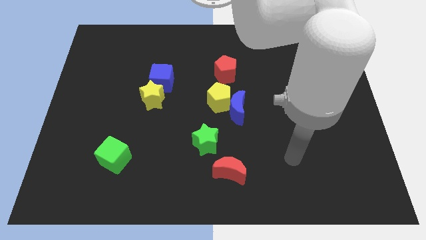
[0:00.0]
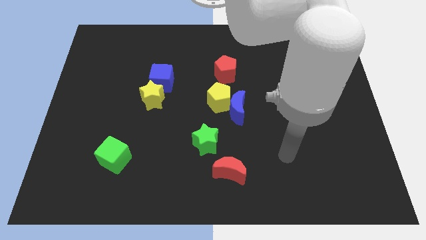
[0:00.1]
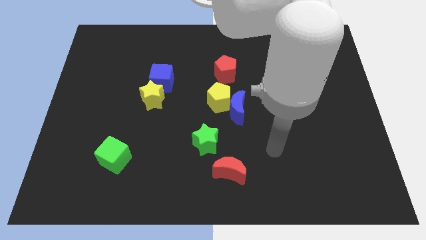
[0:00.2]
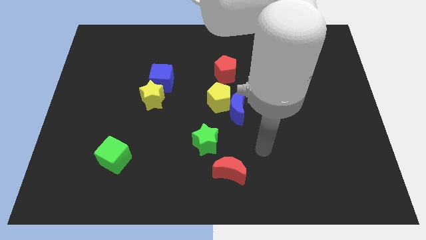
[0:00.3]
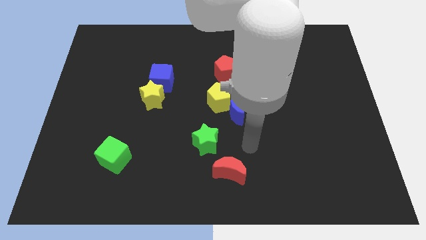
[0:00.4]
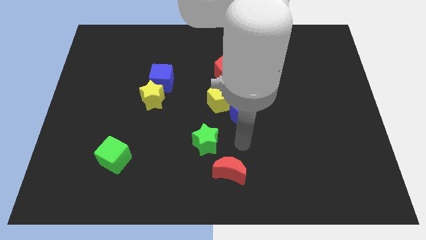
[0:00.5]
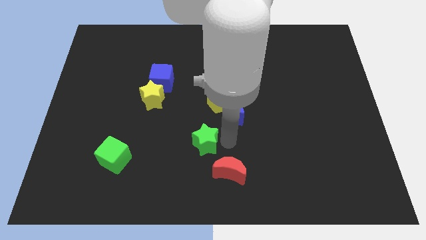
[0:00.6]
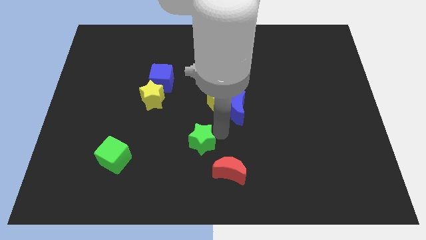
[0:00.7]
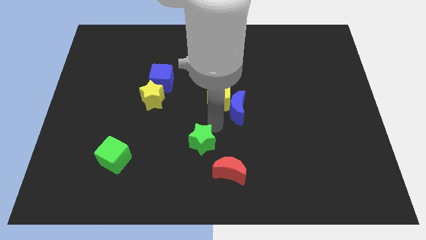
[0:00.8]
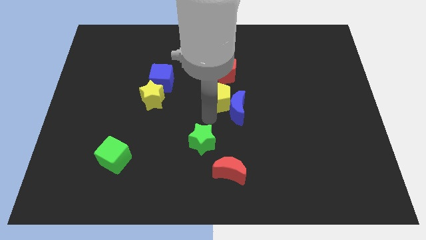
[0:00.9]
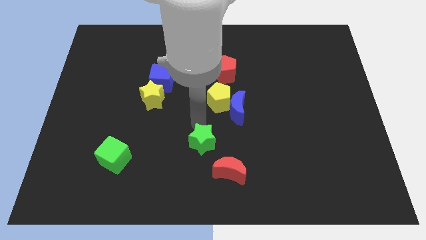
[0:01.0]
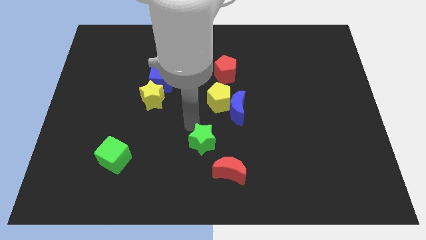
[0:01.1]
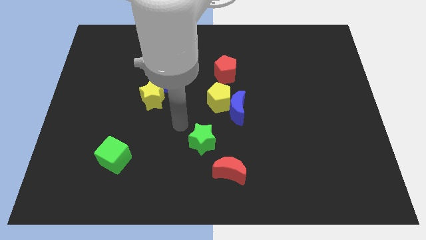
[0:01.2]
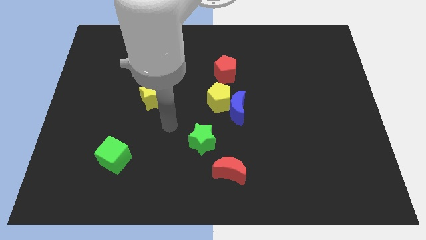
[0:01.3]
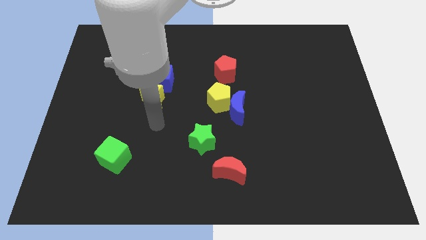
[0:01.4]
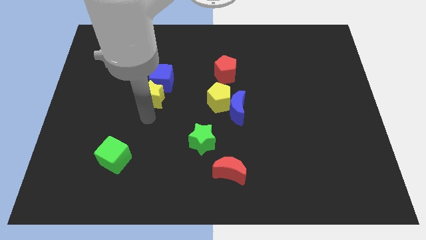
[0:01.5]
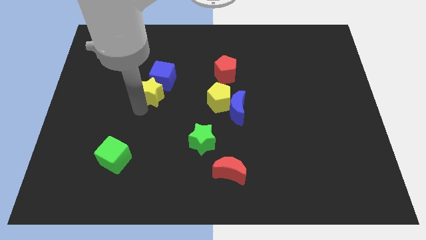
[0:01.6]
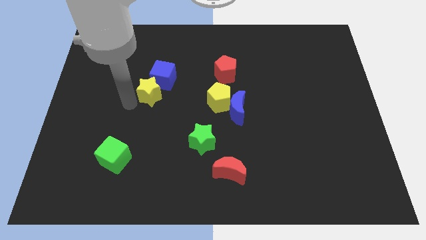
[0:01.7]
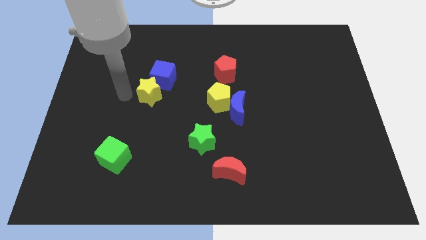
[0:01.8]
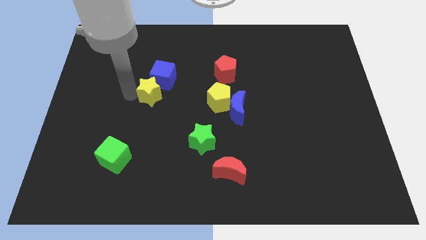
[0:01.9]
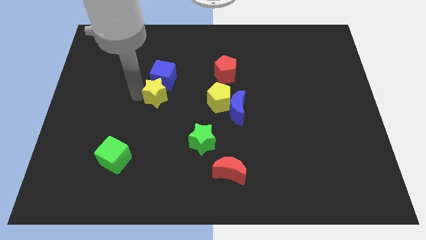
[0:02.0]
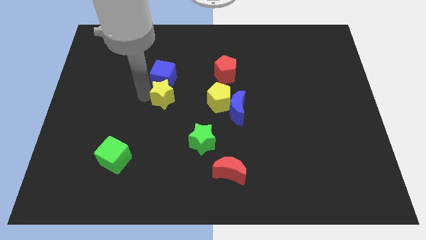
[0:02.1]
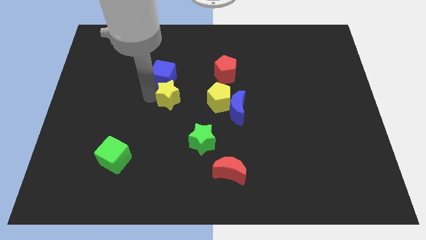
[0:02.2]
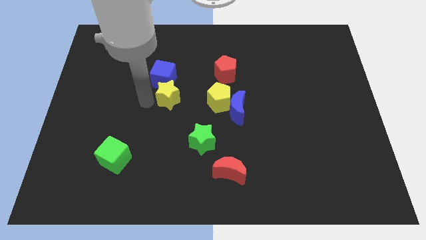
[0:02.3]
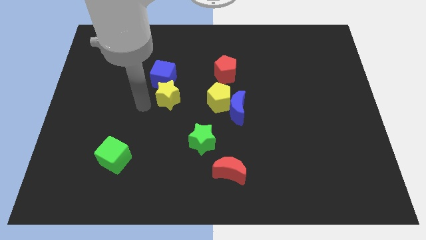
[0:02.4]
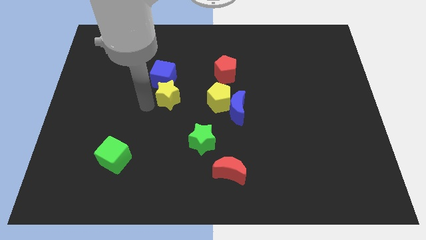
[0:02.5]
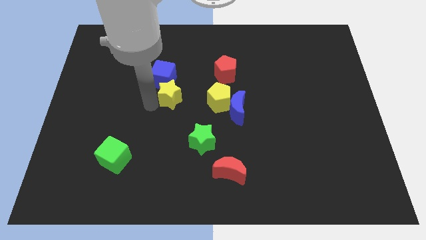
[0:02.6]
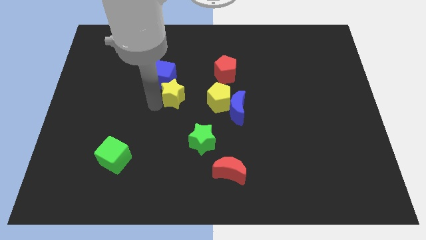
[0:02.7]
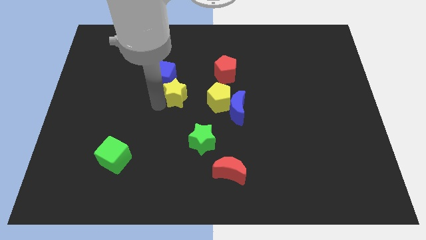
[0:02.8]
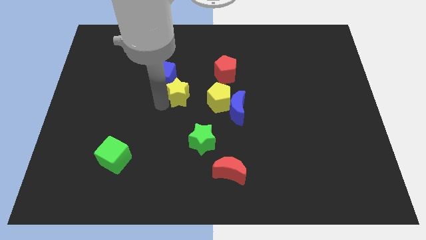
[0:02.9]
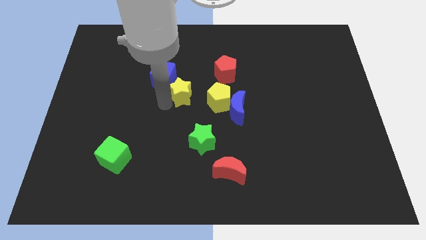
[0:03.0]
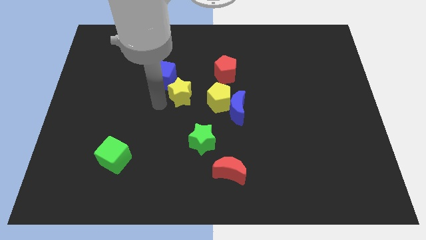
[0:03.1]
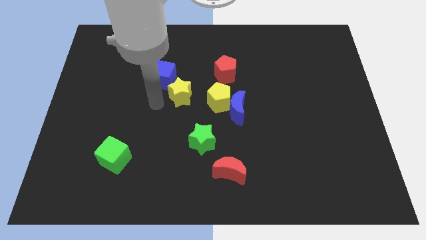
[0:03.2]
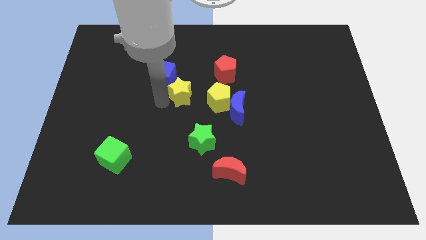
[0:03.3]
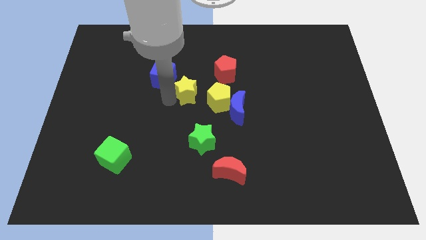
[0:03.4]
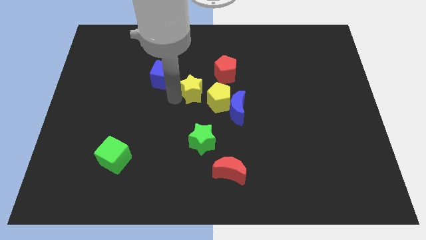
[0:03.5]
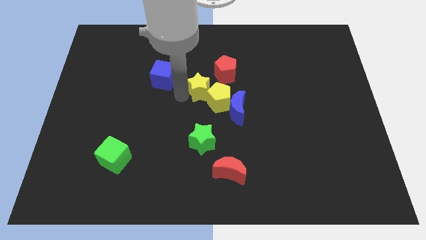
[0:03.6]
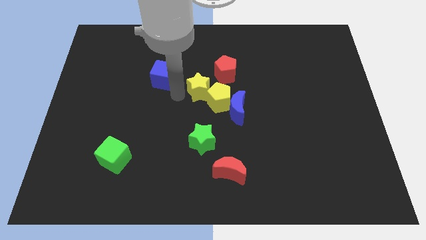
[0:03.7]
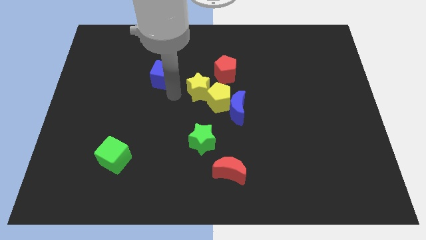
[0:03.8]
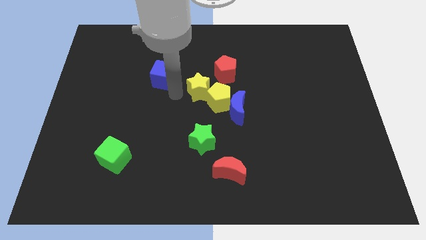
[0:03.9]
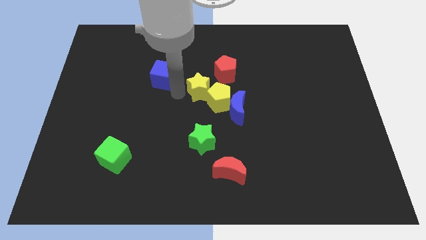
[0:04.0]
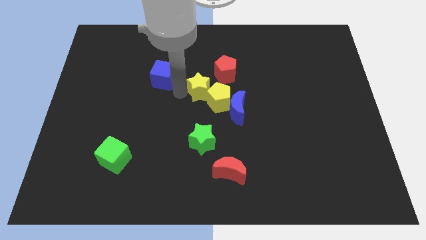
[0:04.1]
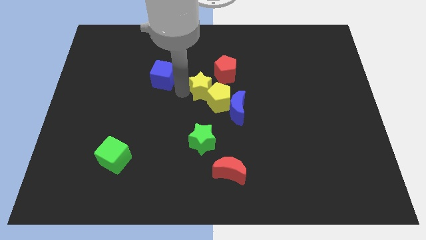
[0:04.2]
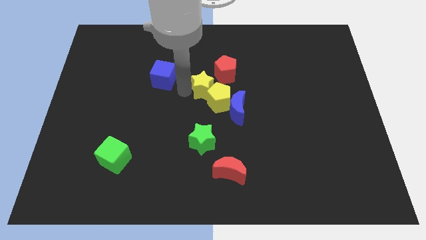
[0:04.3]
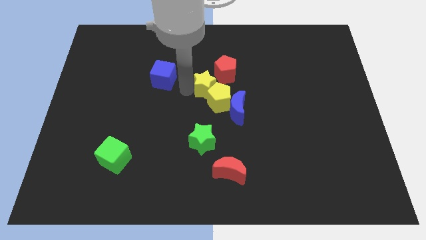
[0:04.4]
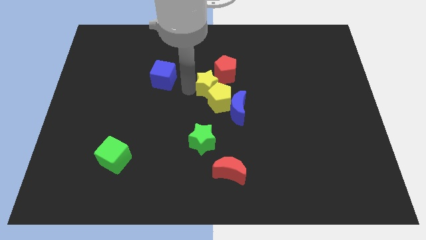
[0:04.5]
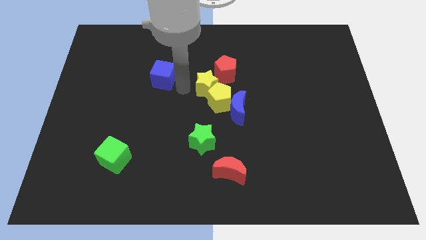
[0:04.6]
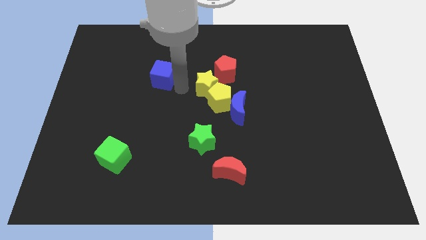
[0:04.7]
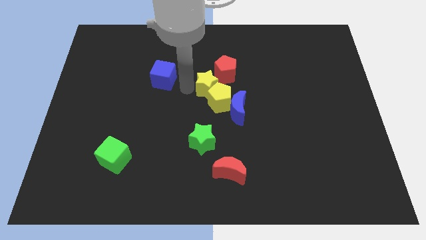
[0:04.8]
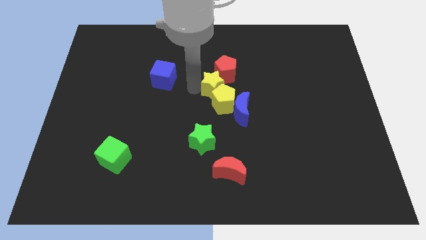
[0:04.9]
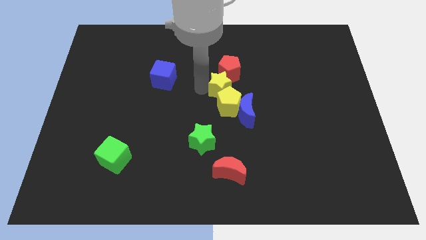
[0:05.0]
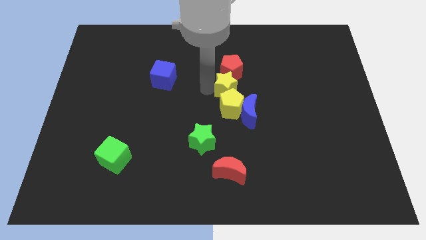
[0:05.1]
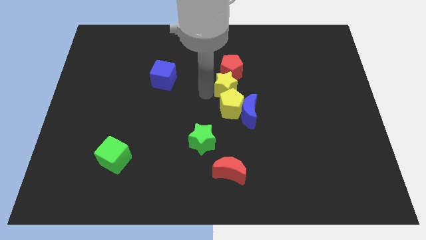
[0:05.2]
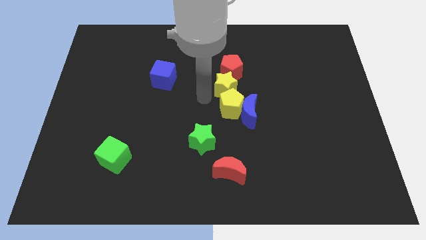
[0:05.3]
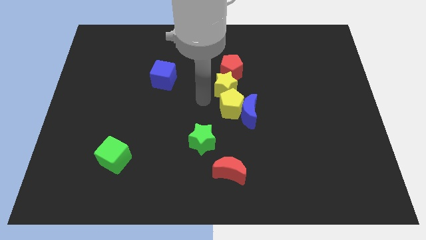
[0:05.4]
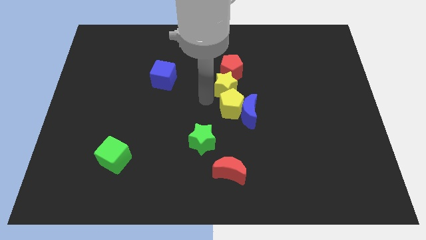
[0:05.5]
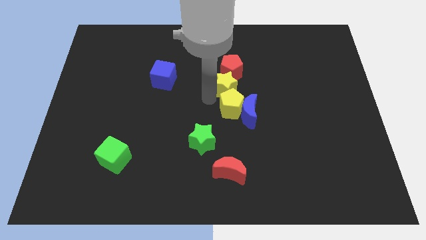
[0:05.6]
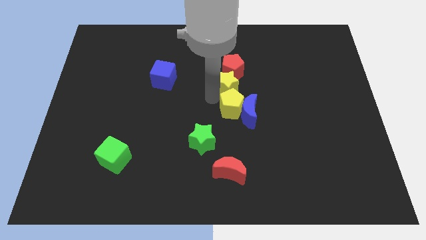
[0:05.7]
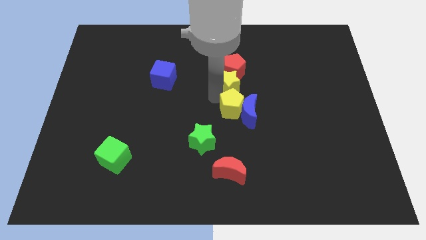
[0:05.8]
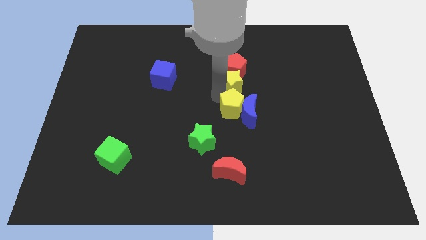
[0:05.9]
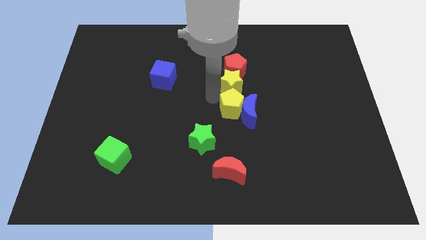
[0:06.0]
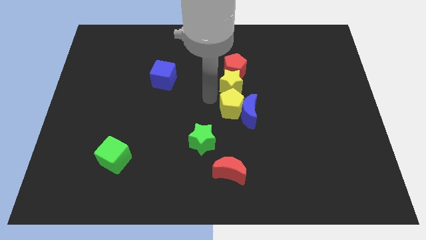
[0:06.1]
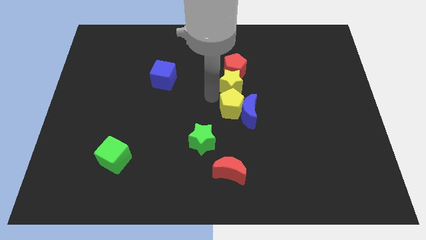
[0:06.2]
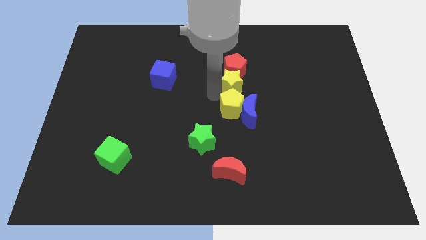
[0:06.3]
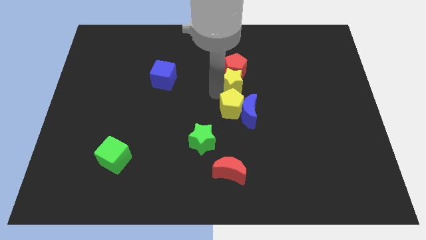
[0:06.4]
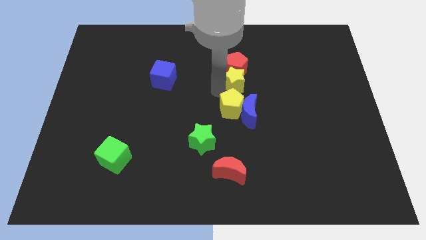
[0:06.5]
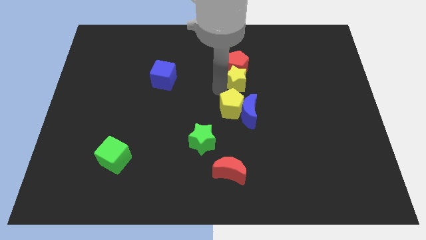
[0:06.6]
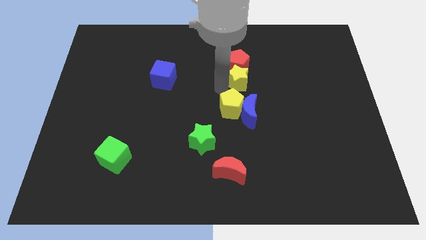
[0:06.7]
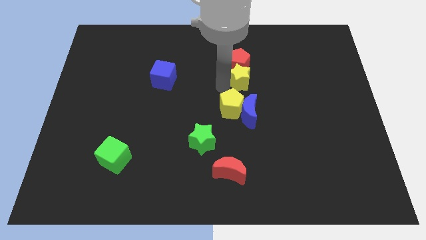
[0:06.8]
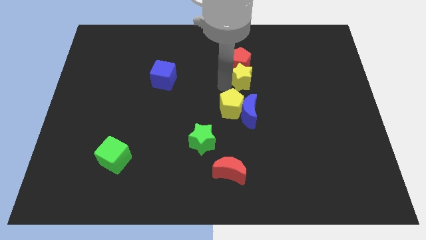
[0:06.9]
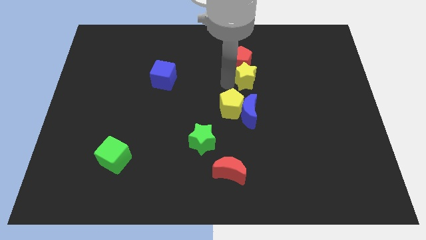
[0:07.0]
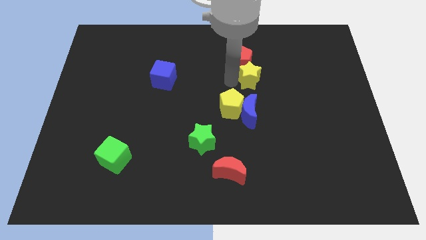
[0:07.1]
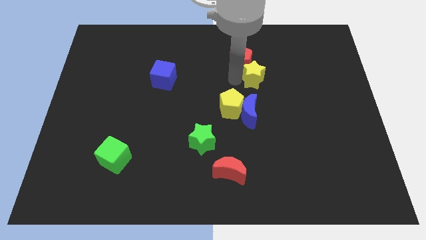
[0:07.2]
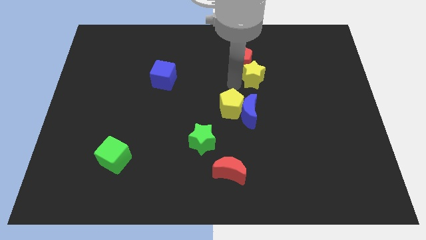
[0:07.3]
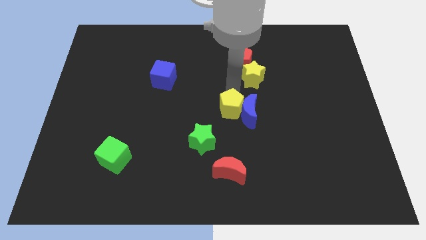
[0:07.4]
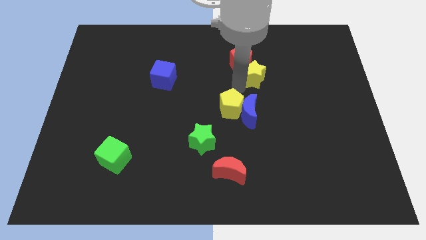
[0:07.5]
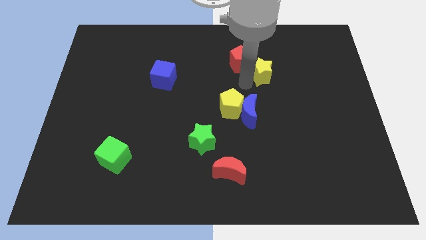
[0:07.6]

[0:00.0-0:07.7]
slide the yellow star to the right of the red pentagon

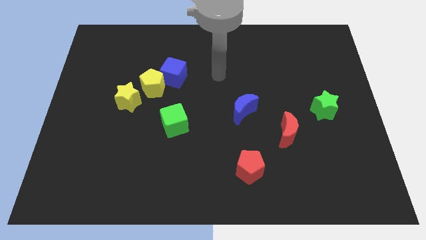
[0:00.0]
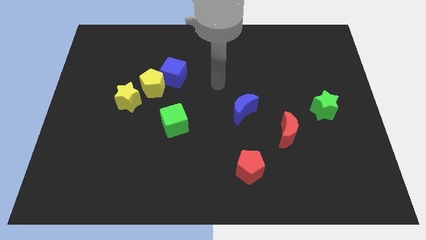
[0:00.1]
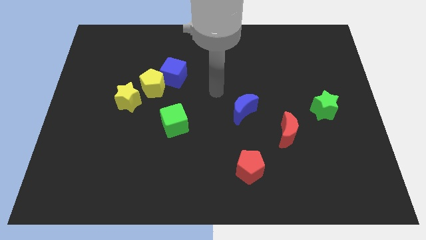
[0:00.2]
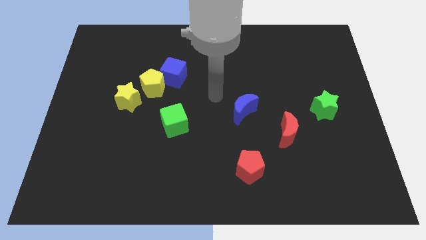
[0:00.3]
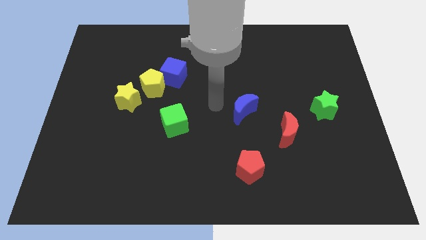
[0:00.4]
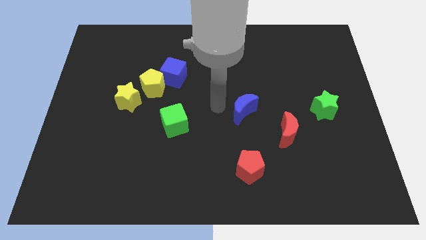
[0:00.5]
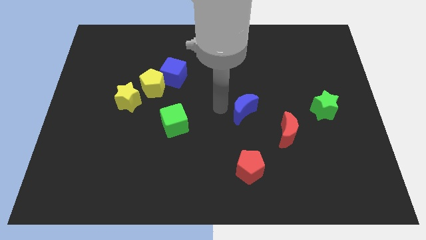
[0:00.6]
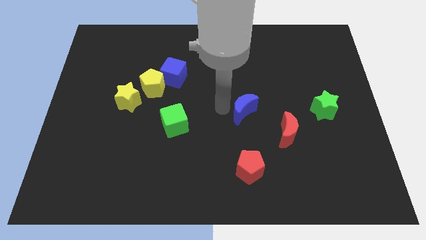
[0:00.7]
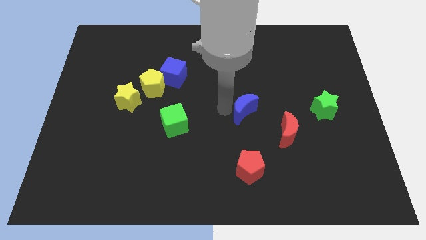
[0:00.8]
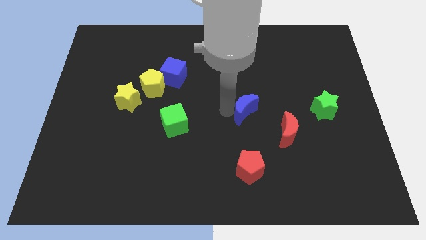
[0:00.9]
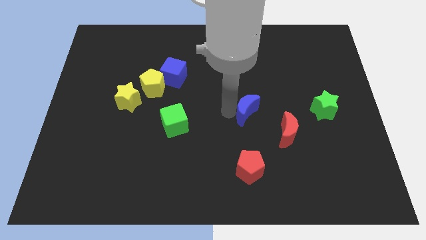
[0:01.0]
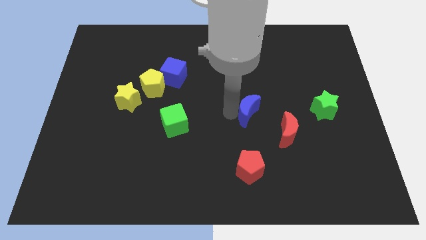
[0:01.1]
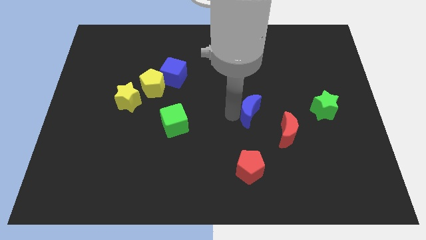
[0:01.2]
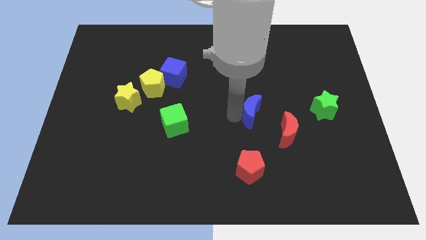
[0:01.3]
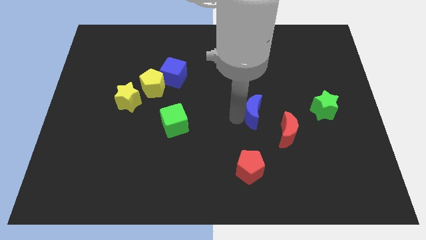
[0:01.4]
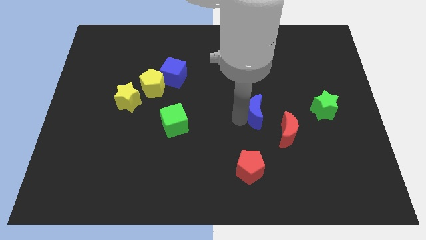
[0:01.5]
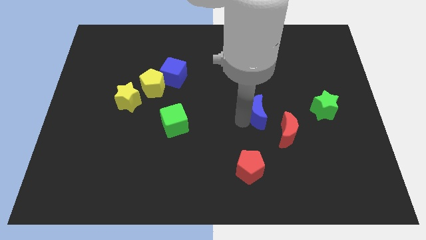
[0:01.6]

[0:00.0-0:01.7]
slide the blue moon just left of the green star
